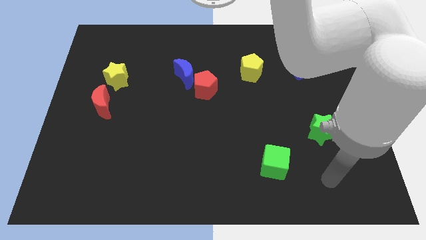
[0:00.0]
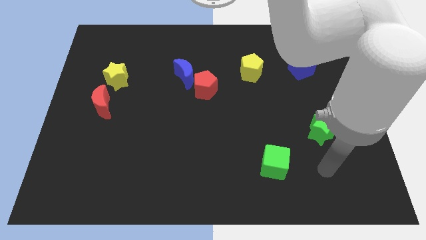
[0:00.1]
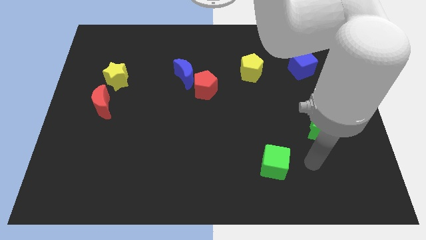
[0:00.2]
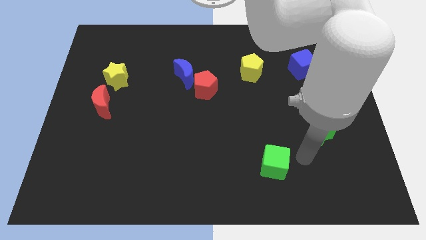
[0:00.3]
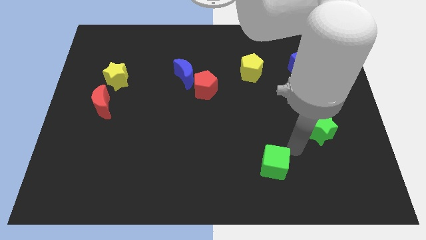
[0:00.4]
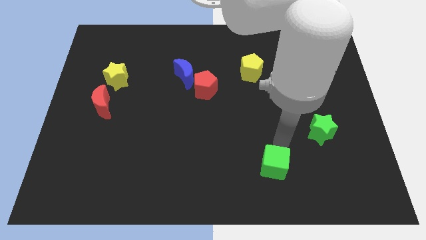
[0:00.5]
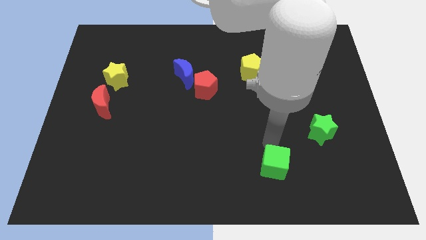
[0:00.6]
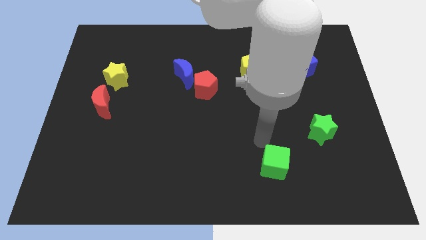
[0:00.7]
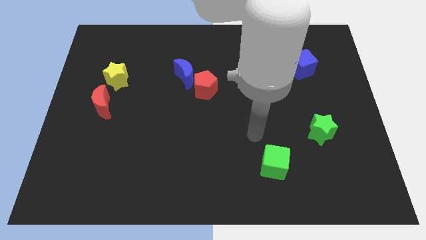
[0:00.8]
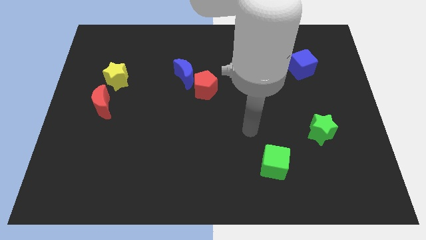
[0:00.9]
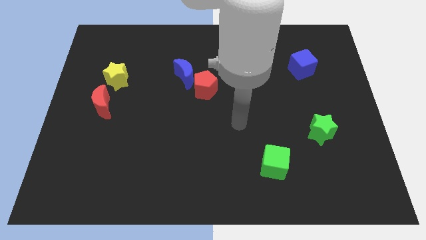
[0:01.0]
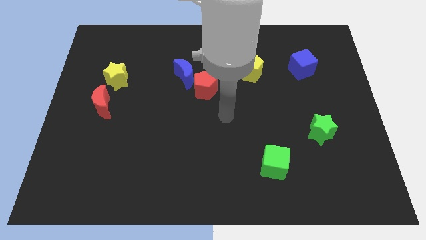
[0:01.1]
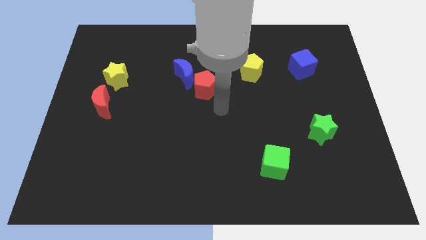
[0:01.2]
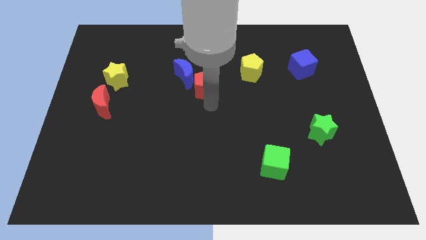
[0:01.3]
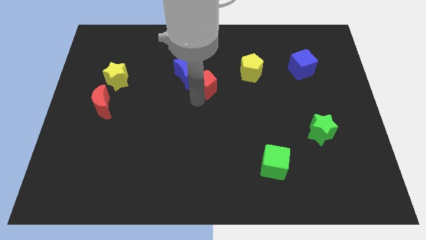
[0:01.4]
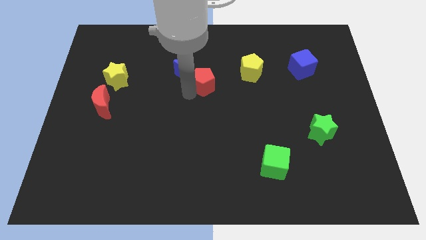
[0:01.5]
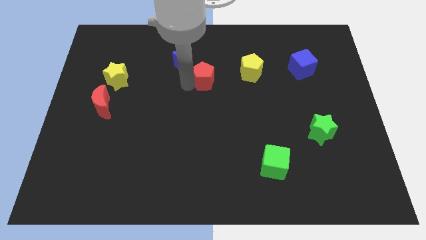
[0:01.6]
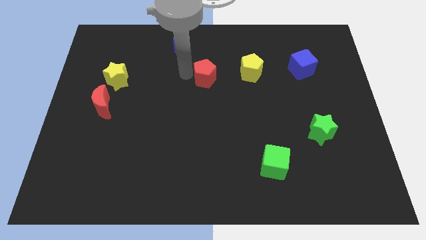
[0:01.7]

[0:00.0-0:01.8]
separate the red pentagon from the blue moon

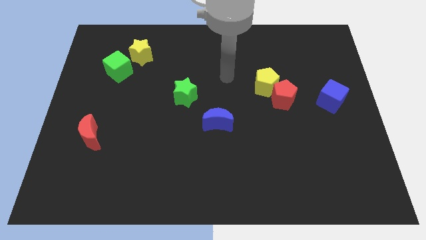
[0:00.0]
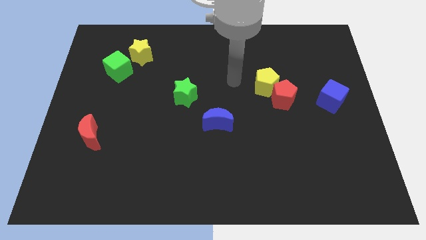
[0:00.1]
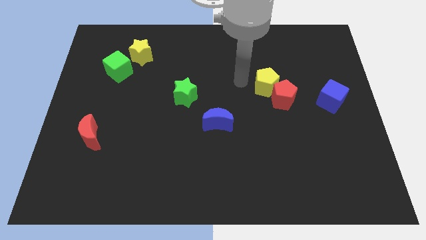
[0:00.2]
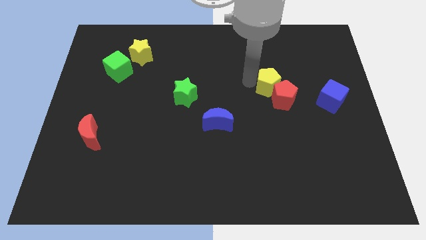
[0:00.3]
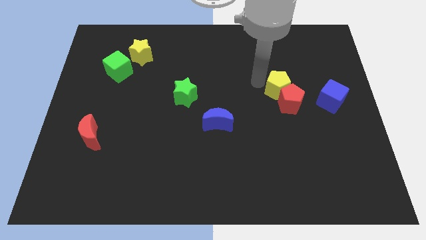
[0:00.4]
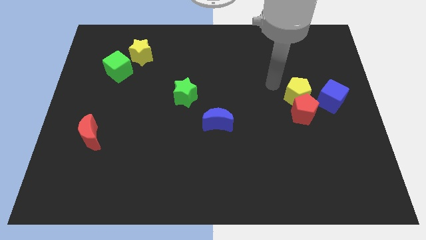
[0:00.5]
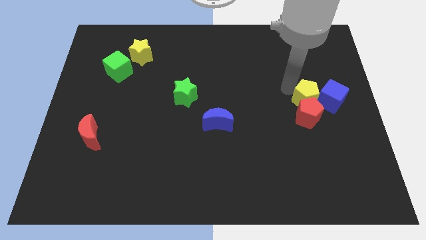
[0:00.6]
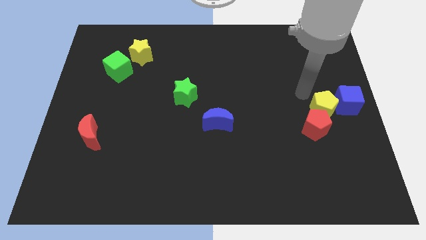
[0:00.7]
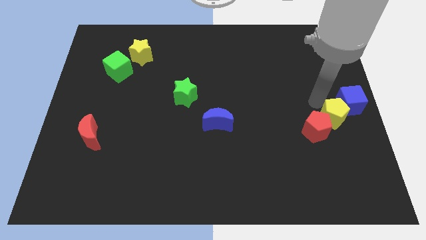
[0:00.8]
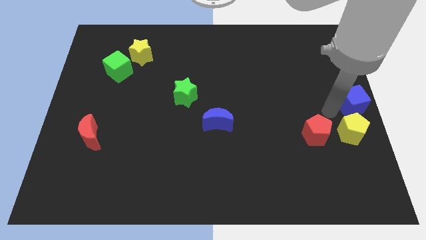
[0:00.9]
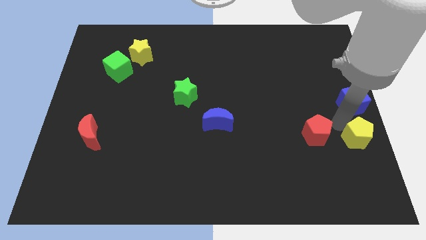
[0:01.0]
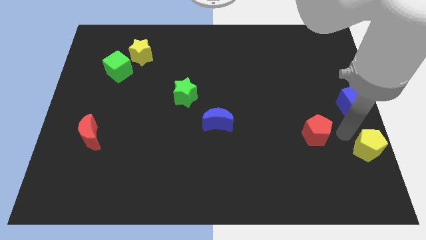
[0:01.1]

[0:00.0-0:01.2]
pull the red pentagon apart from the yellow pentagon

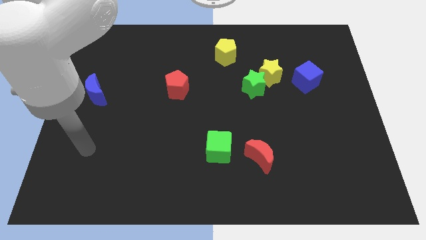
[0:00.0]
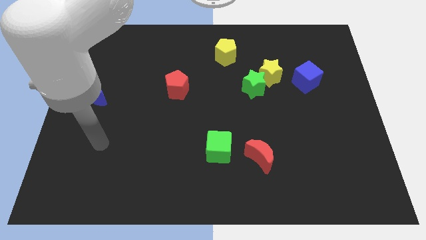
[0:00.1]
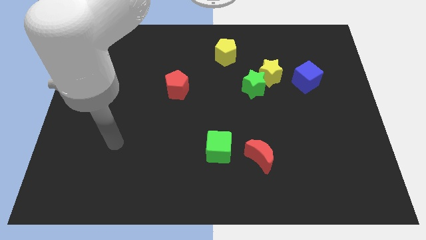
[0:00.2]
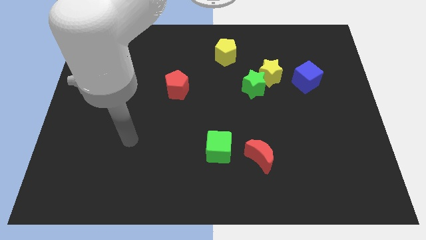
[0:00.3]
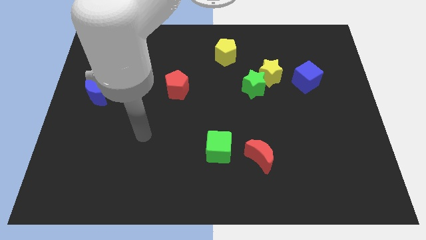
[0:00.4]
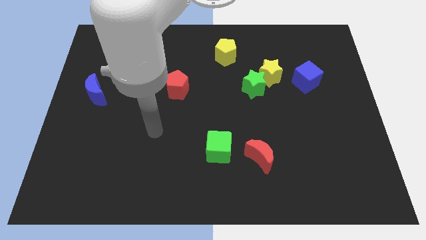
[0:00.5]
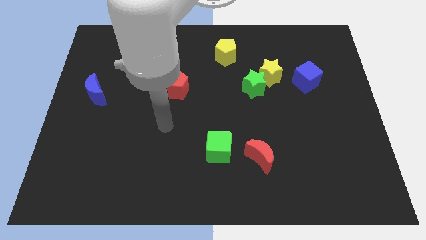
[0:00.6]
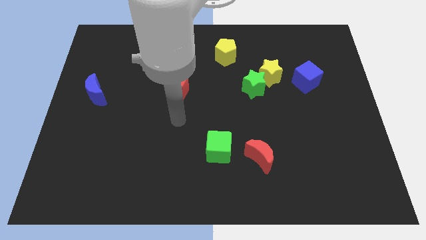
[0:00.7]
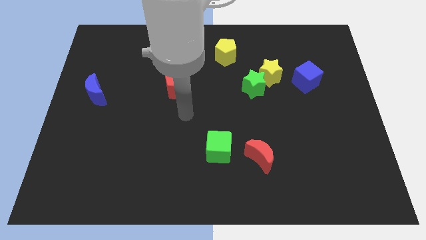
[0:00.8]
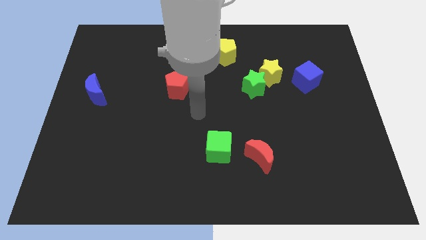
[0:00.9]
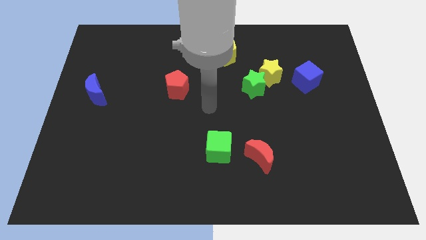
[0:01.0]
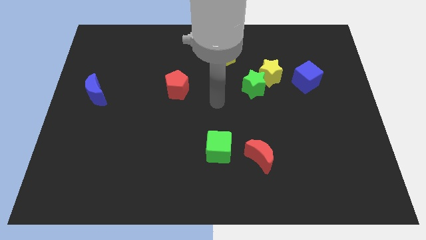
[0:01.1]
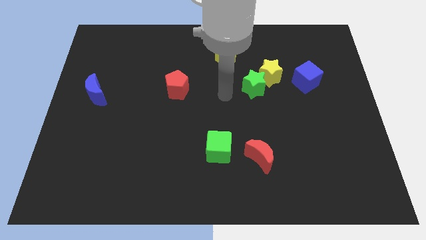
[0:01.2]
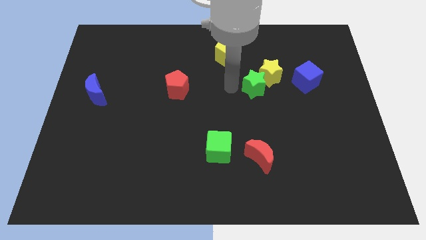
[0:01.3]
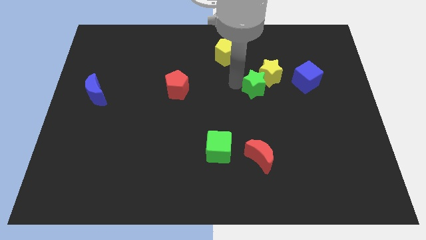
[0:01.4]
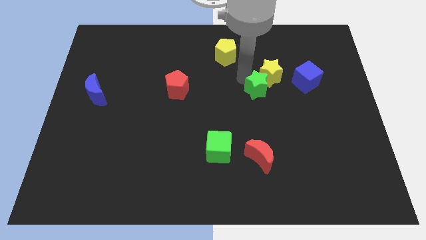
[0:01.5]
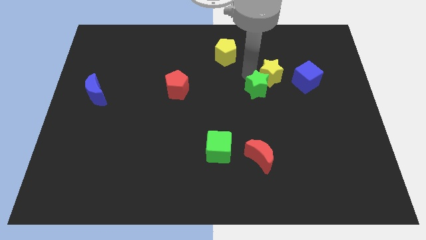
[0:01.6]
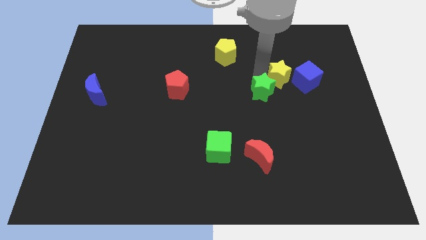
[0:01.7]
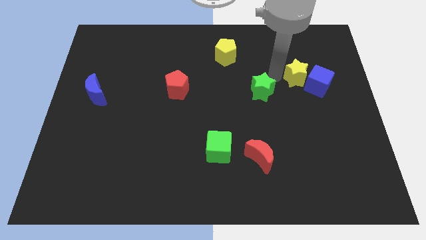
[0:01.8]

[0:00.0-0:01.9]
move the green star away from the yellow star

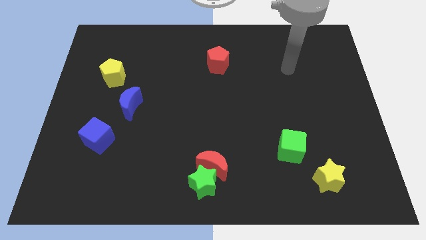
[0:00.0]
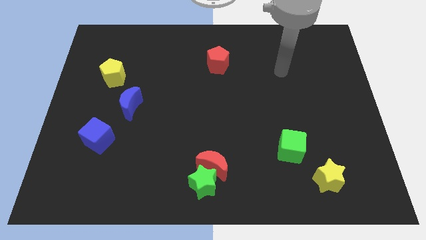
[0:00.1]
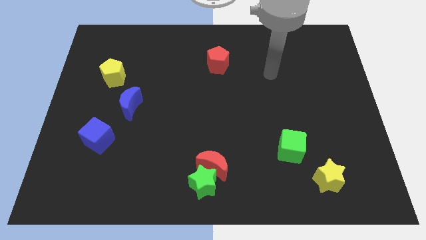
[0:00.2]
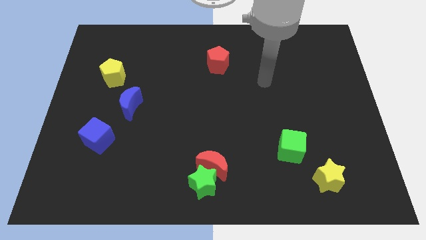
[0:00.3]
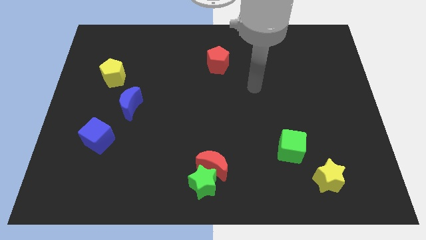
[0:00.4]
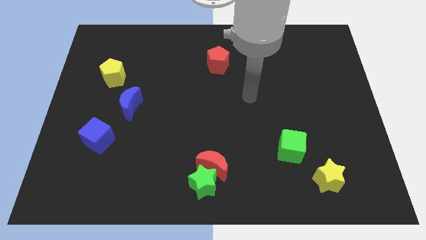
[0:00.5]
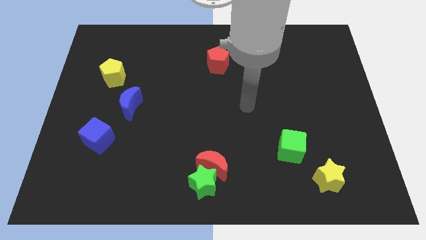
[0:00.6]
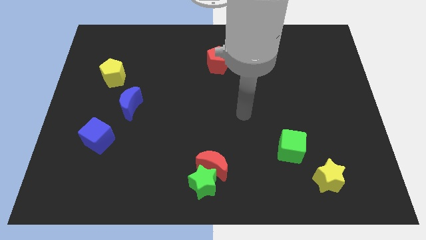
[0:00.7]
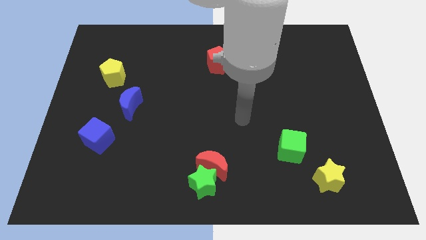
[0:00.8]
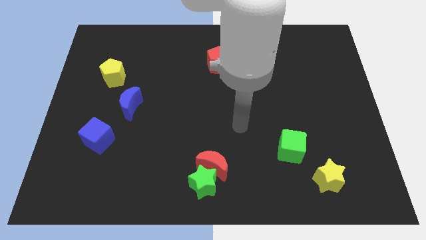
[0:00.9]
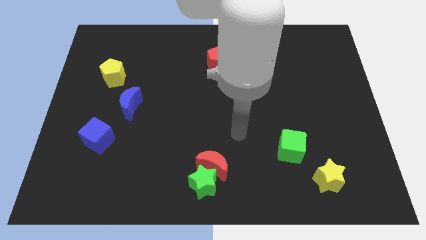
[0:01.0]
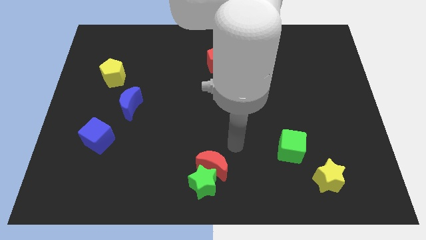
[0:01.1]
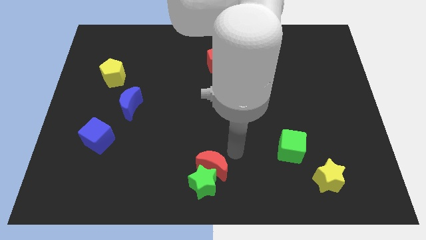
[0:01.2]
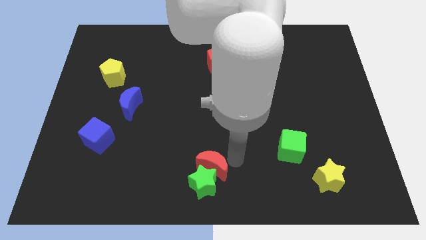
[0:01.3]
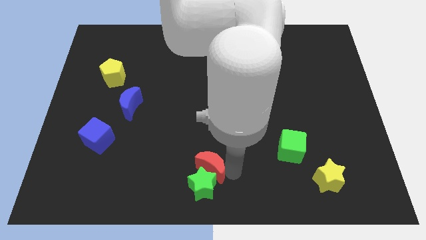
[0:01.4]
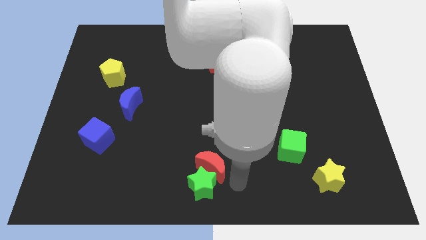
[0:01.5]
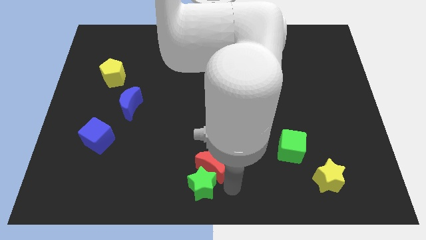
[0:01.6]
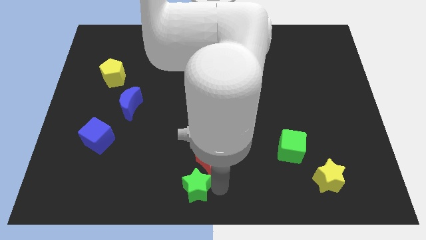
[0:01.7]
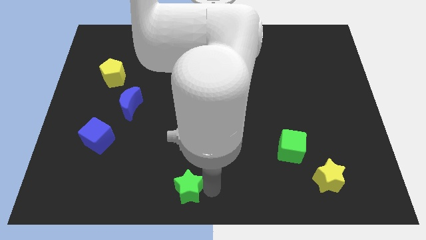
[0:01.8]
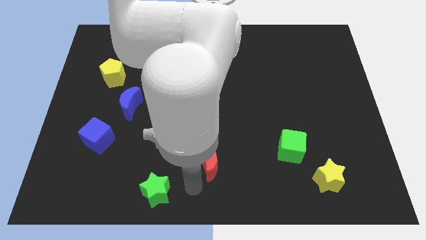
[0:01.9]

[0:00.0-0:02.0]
move the red moon away from the green star

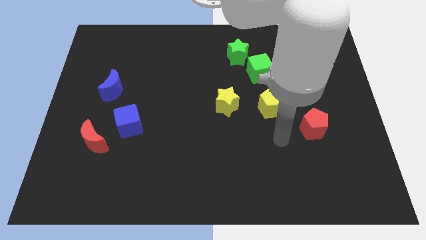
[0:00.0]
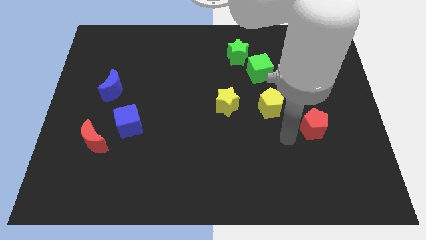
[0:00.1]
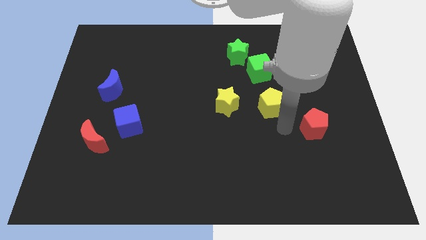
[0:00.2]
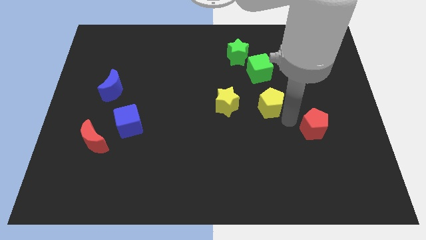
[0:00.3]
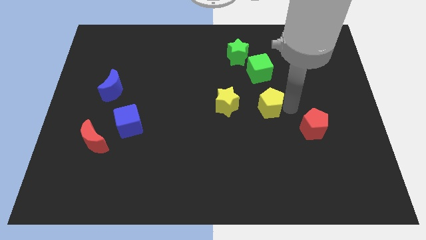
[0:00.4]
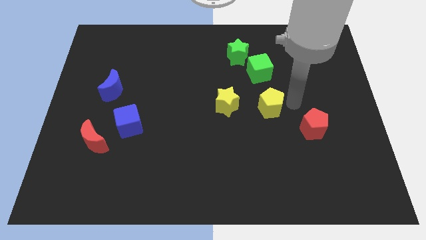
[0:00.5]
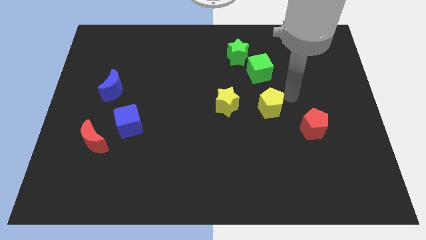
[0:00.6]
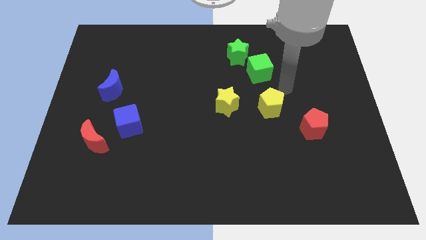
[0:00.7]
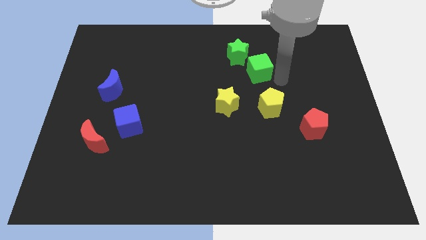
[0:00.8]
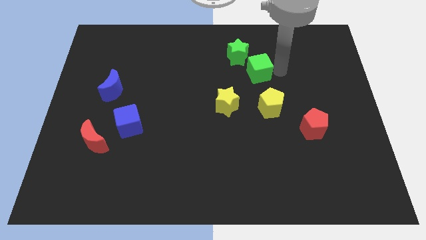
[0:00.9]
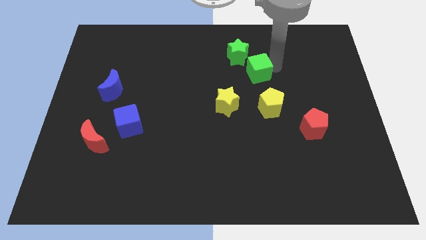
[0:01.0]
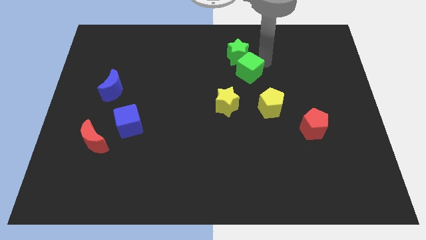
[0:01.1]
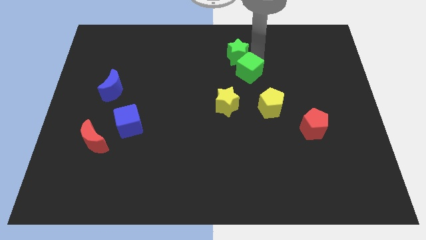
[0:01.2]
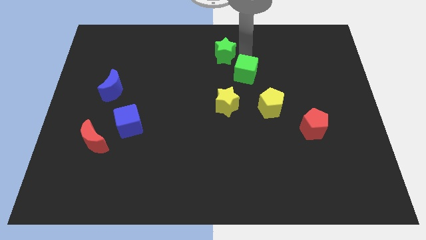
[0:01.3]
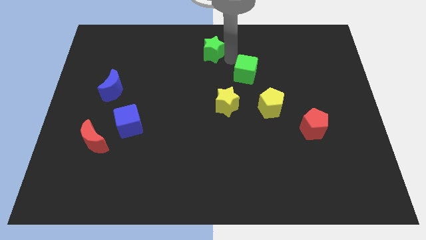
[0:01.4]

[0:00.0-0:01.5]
separate the green cube from the green star

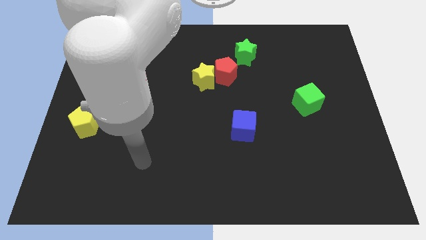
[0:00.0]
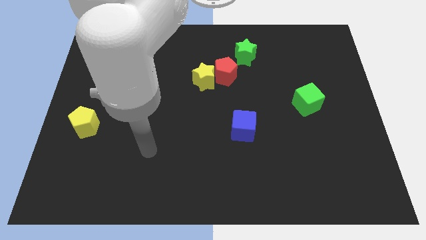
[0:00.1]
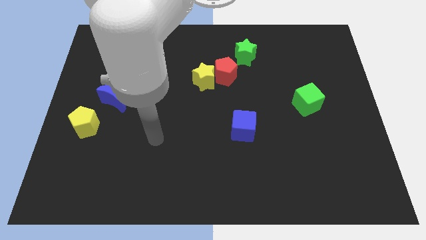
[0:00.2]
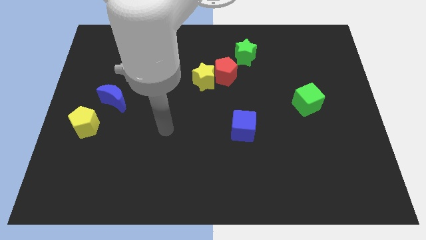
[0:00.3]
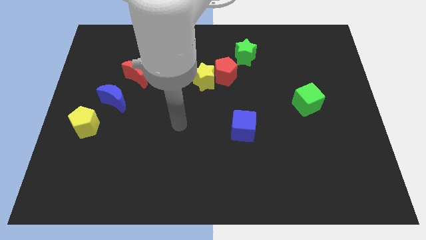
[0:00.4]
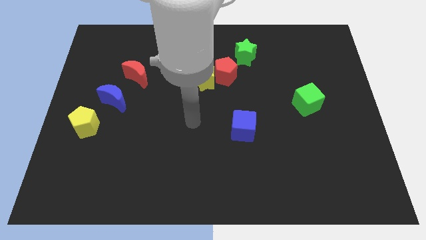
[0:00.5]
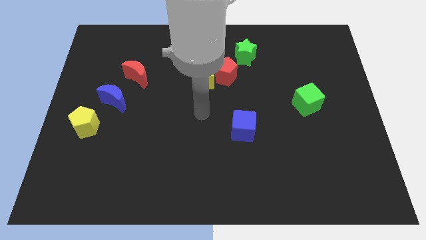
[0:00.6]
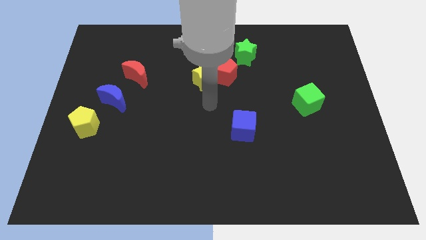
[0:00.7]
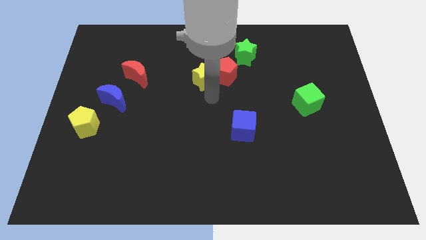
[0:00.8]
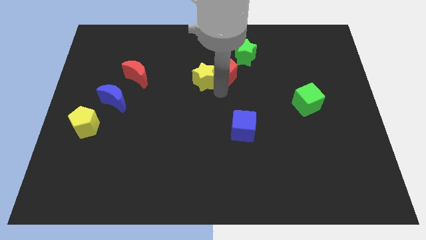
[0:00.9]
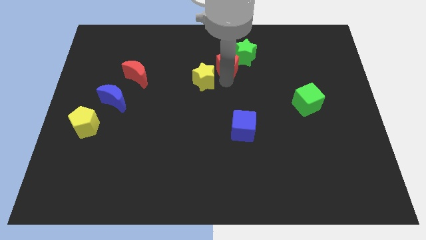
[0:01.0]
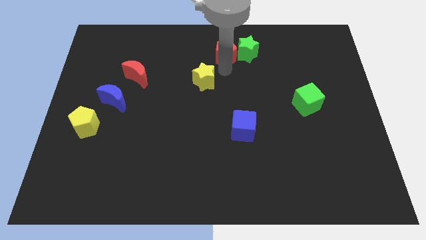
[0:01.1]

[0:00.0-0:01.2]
move the yellow star away from the red pentagon
